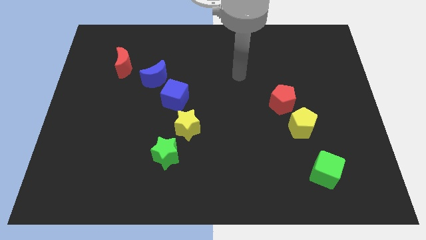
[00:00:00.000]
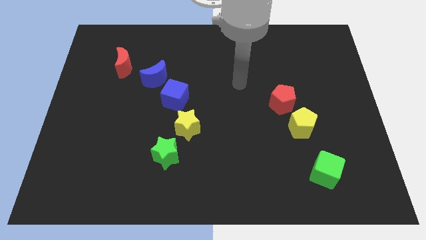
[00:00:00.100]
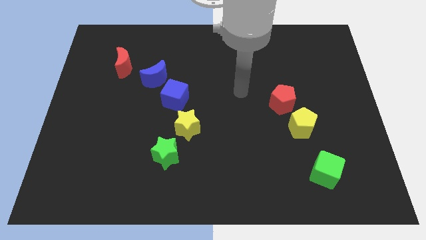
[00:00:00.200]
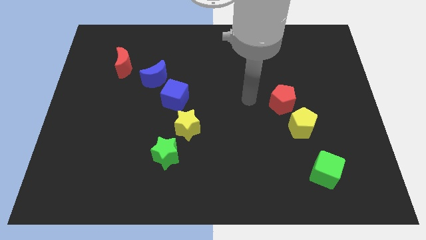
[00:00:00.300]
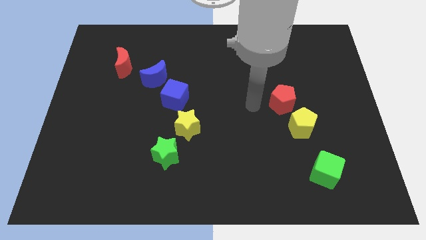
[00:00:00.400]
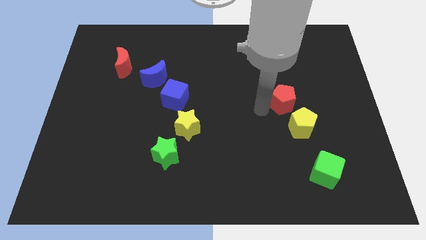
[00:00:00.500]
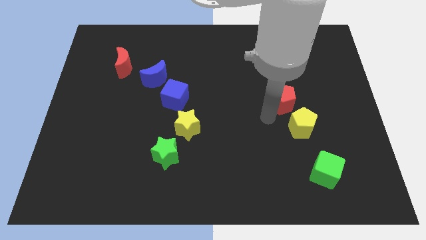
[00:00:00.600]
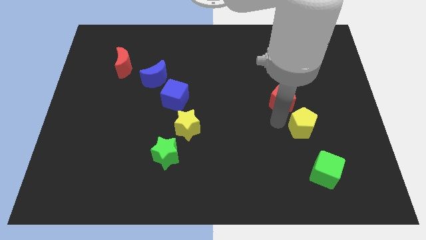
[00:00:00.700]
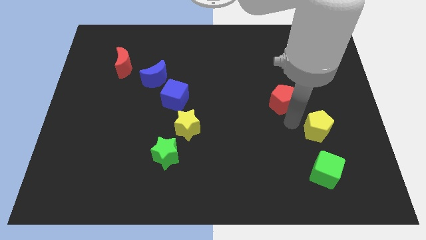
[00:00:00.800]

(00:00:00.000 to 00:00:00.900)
pull the red pentagon apart from the yellow pentagon

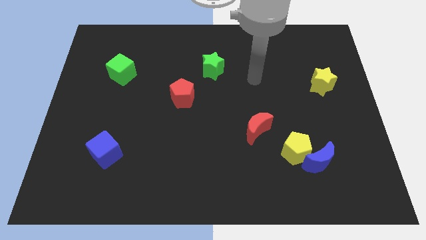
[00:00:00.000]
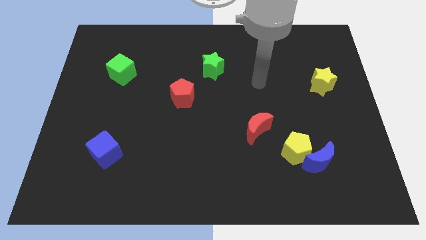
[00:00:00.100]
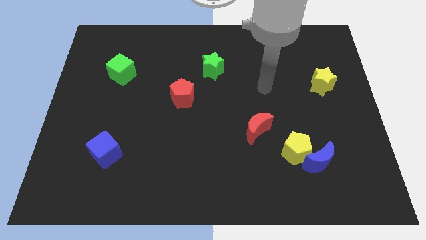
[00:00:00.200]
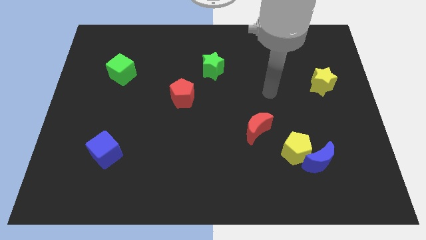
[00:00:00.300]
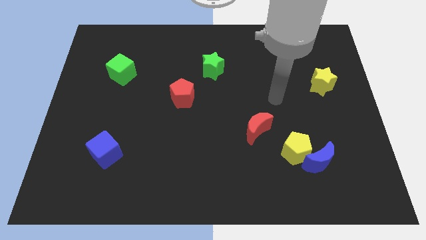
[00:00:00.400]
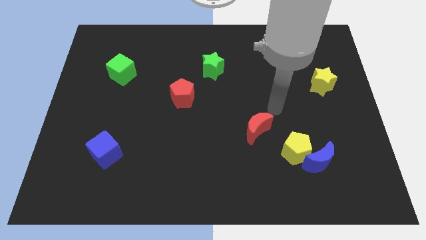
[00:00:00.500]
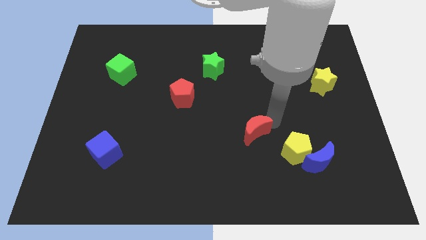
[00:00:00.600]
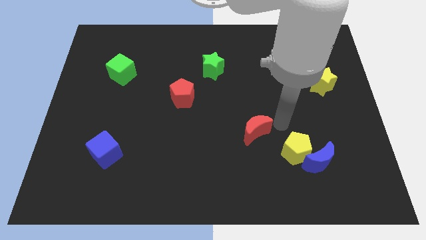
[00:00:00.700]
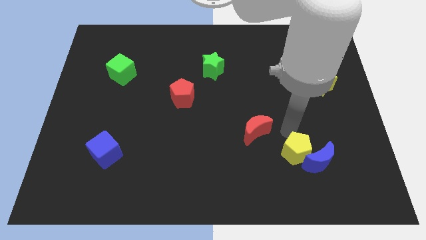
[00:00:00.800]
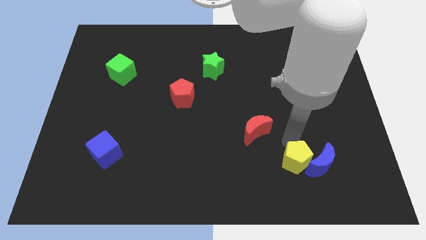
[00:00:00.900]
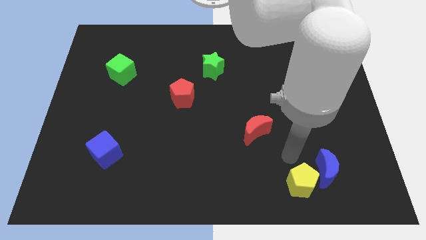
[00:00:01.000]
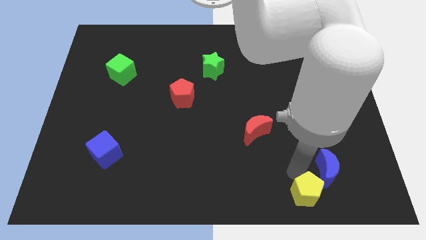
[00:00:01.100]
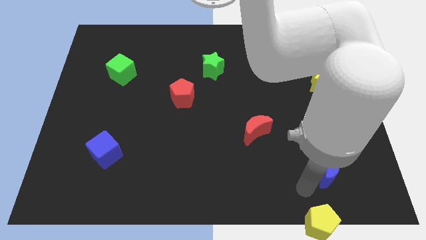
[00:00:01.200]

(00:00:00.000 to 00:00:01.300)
pull the blue moon apart from the yellow pentagon

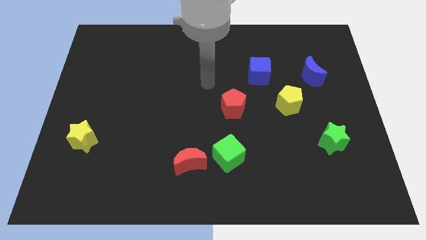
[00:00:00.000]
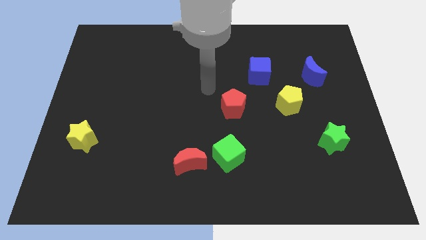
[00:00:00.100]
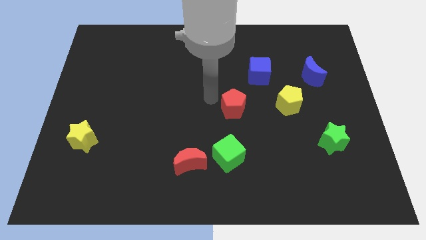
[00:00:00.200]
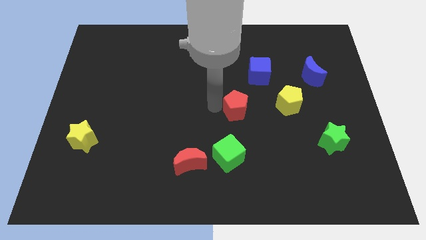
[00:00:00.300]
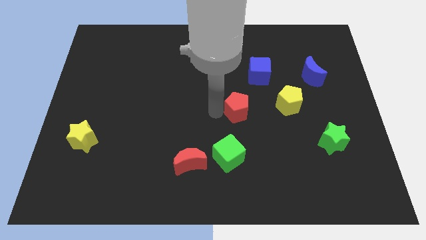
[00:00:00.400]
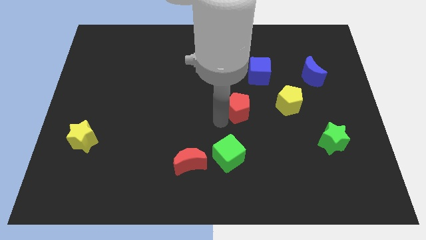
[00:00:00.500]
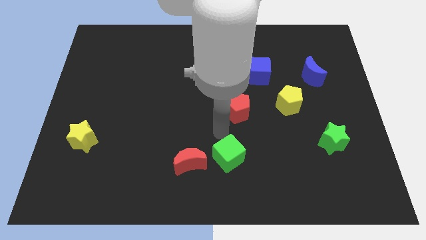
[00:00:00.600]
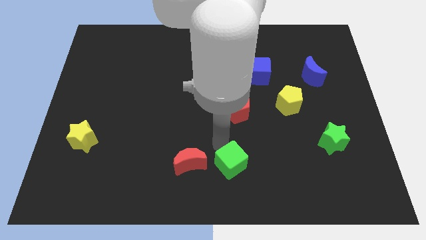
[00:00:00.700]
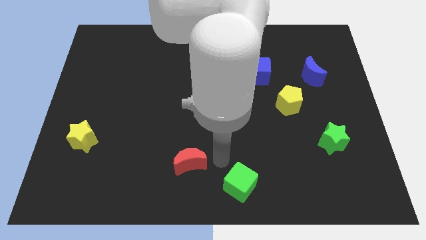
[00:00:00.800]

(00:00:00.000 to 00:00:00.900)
separate the red moon from the green cube

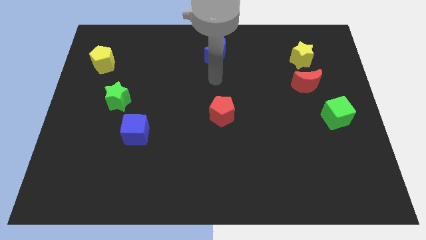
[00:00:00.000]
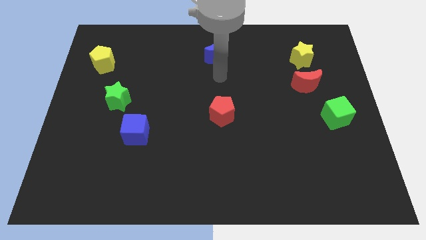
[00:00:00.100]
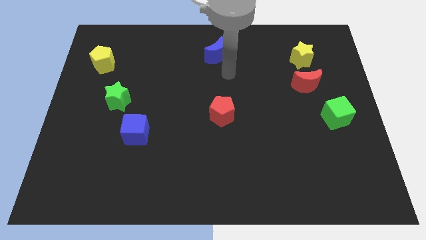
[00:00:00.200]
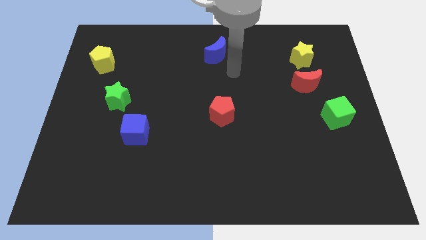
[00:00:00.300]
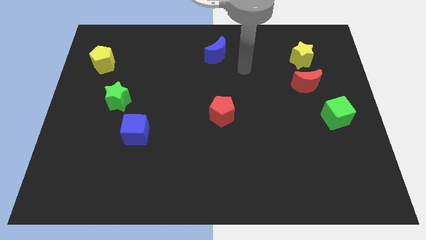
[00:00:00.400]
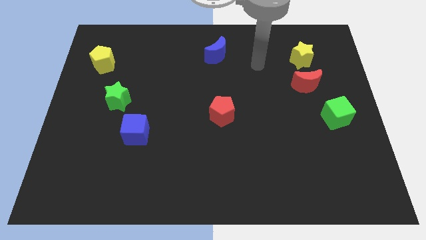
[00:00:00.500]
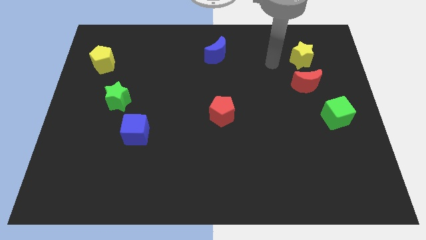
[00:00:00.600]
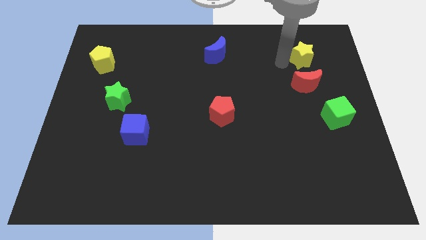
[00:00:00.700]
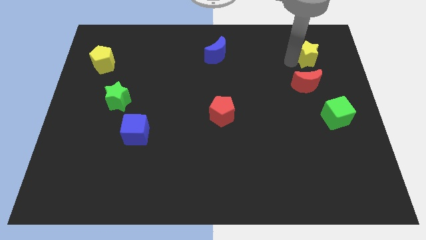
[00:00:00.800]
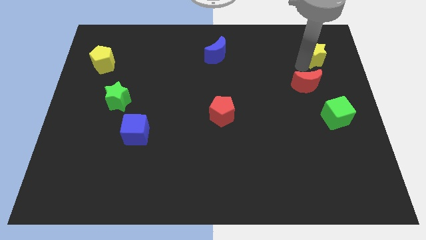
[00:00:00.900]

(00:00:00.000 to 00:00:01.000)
move the red moon away from the yellow star

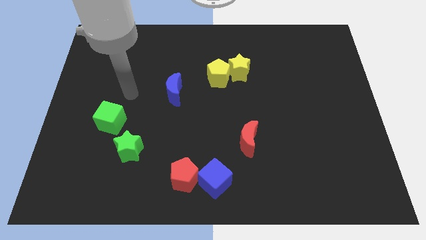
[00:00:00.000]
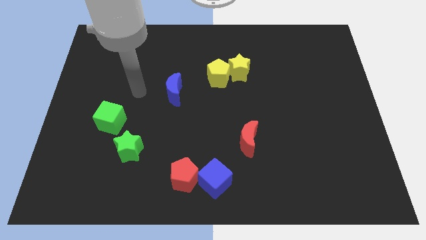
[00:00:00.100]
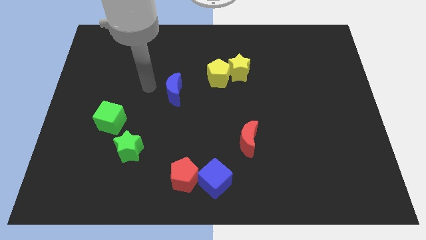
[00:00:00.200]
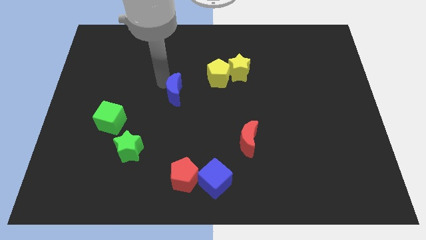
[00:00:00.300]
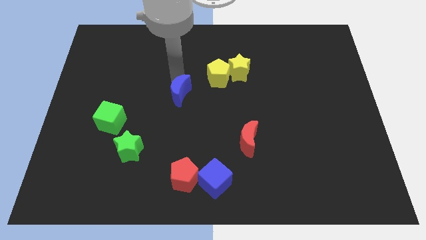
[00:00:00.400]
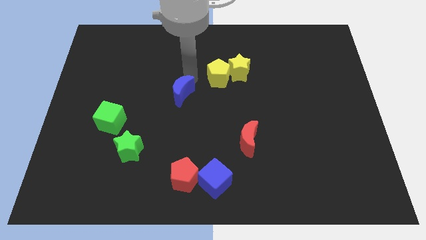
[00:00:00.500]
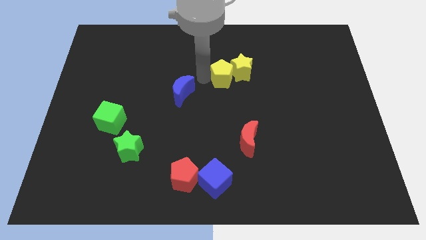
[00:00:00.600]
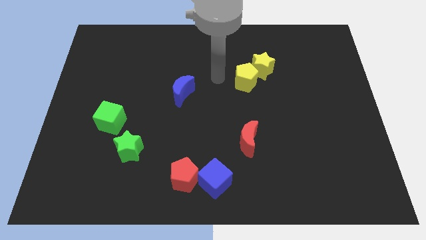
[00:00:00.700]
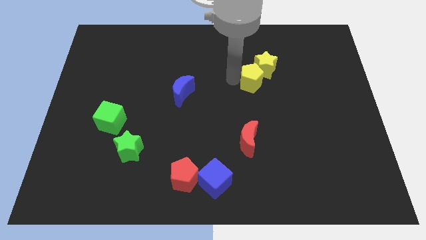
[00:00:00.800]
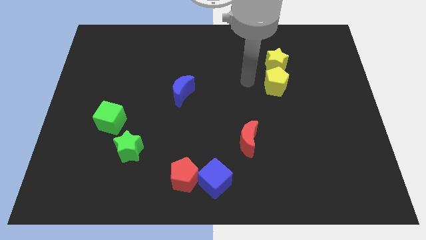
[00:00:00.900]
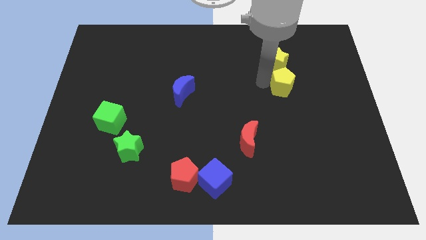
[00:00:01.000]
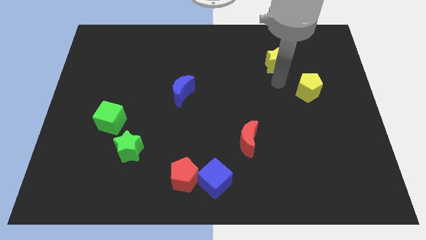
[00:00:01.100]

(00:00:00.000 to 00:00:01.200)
separate the yellow star from the yellow pentagon

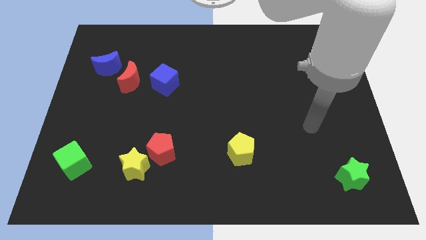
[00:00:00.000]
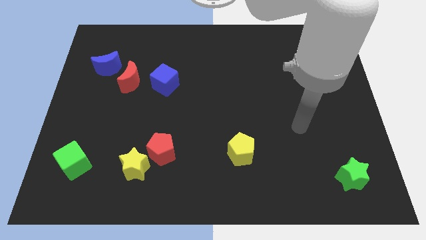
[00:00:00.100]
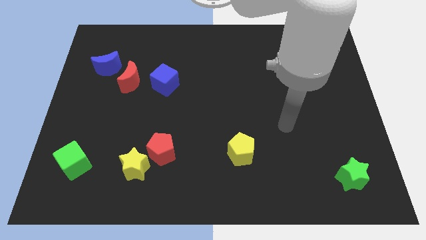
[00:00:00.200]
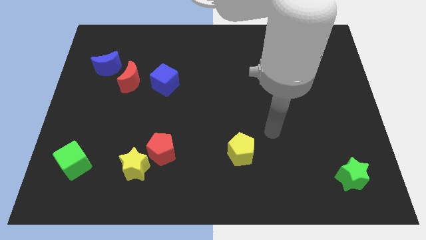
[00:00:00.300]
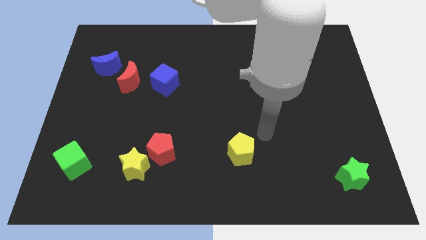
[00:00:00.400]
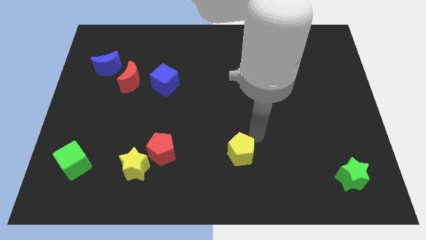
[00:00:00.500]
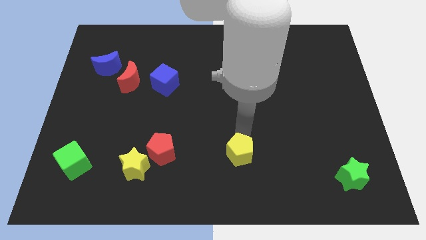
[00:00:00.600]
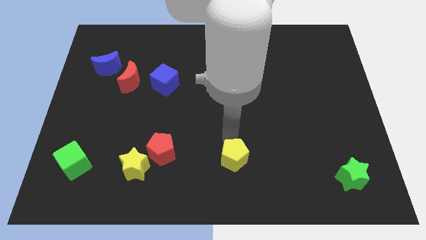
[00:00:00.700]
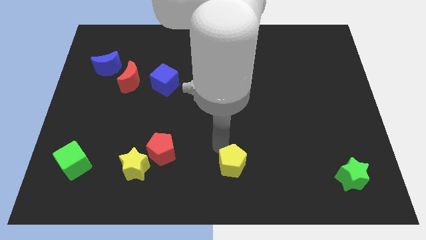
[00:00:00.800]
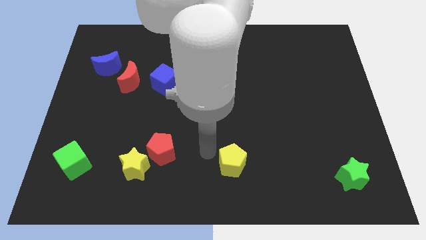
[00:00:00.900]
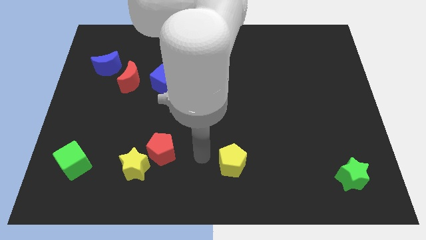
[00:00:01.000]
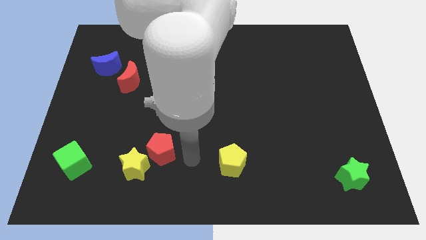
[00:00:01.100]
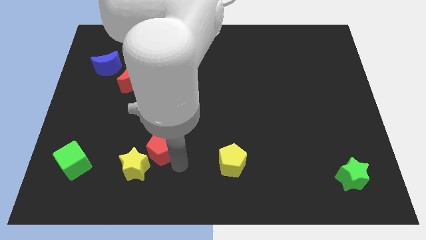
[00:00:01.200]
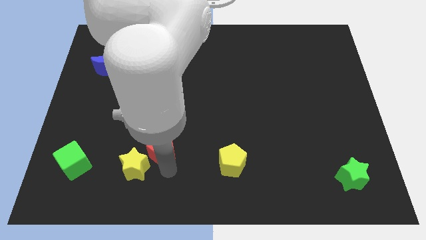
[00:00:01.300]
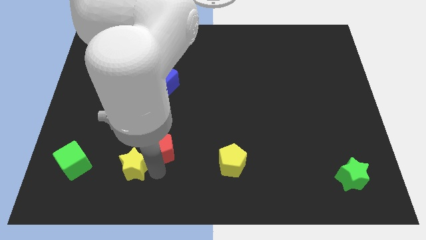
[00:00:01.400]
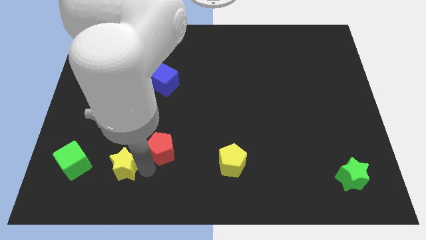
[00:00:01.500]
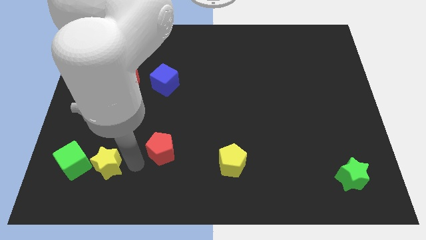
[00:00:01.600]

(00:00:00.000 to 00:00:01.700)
separate the red pentagon from the yellow star

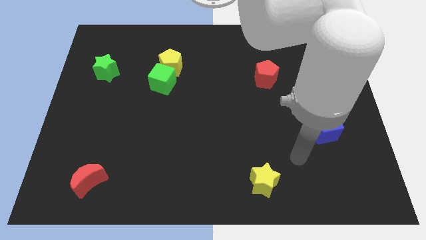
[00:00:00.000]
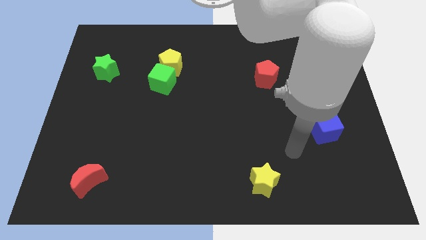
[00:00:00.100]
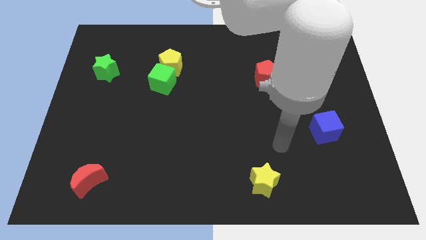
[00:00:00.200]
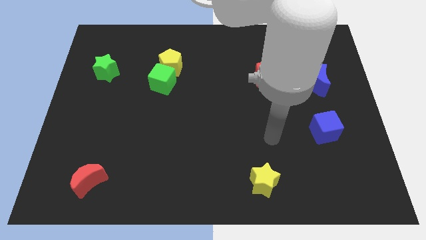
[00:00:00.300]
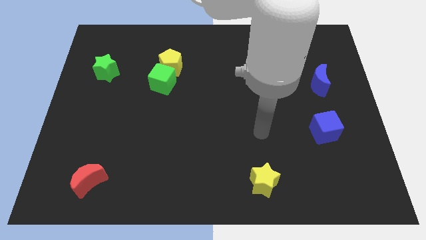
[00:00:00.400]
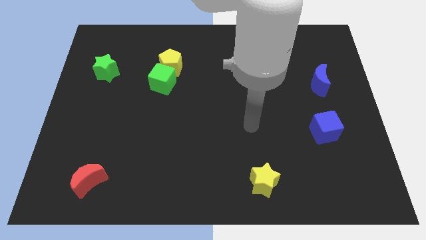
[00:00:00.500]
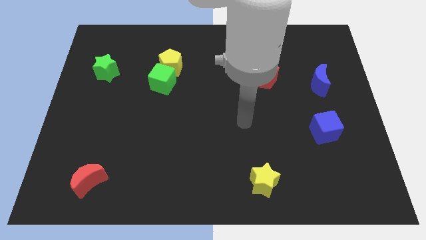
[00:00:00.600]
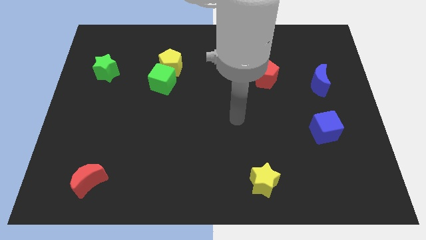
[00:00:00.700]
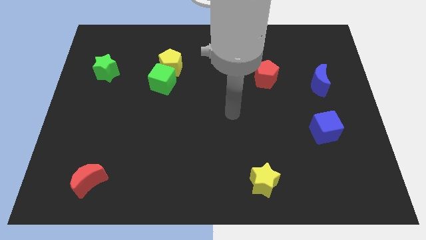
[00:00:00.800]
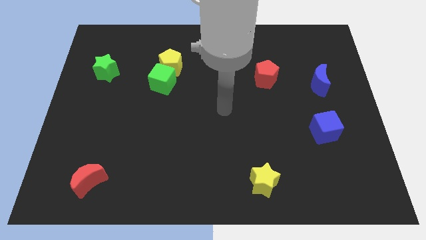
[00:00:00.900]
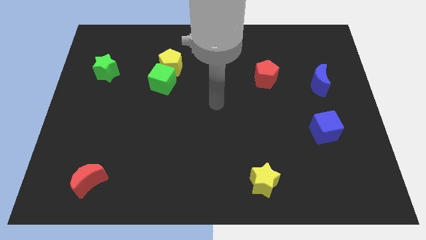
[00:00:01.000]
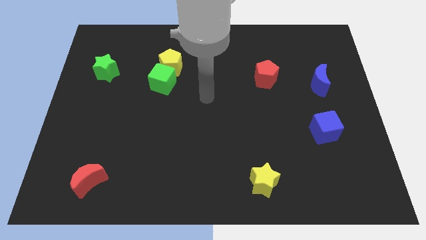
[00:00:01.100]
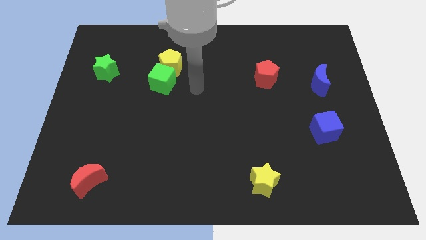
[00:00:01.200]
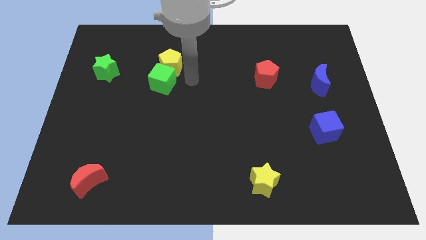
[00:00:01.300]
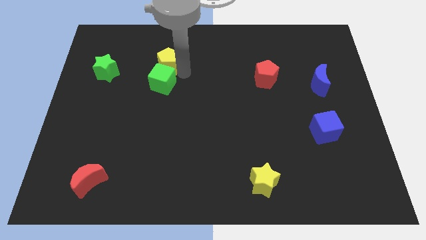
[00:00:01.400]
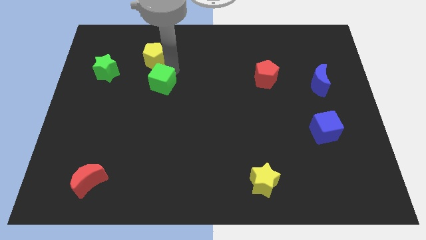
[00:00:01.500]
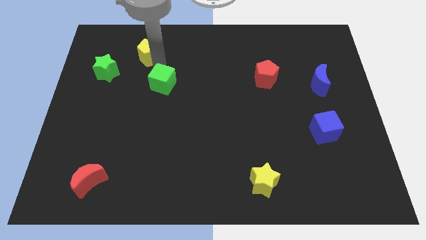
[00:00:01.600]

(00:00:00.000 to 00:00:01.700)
move the green cube away from the yellow pentagon

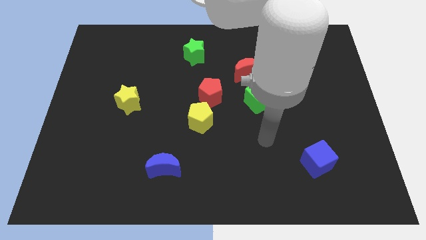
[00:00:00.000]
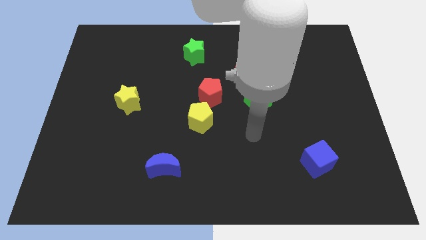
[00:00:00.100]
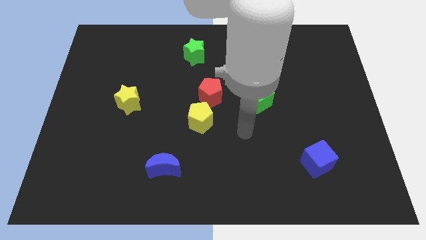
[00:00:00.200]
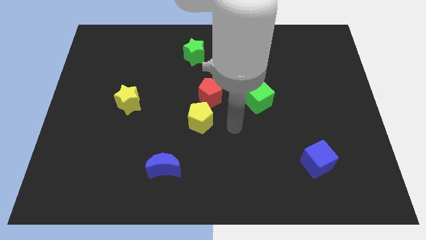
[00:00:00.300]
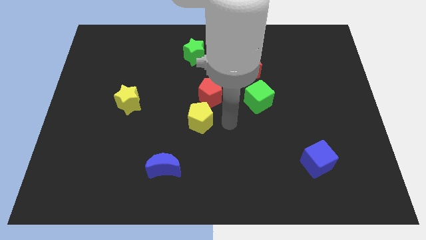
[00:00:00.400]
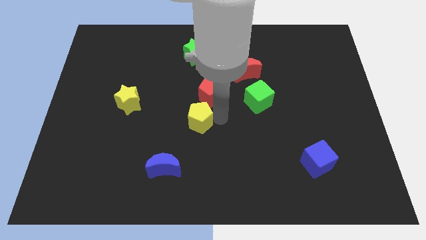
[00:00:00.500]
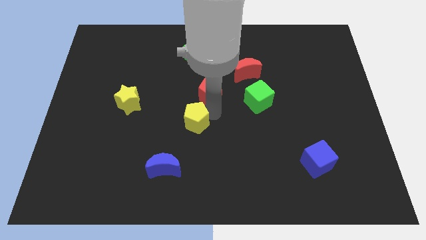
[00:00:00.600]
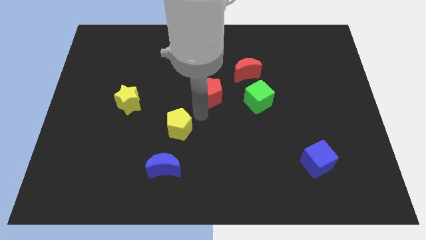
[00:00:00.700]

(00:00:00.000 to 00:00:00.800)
move the red pentagon away from the yellow pentagon
